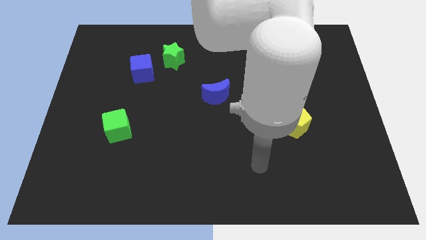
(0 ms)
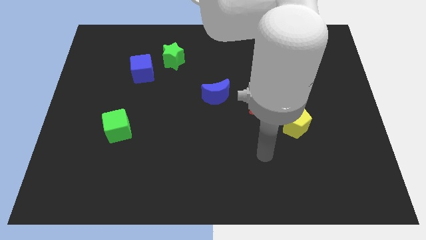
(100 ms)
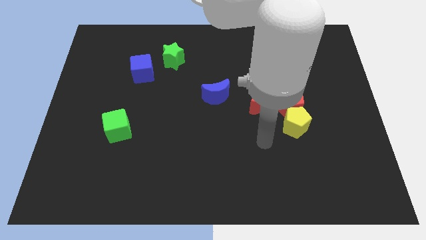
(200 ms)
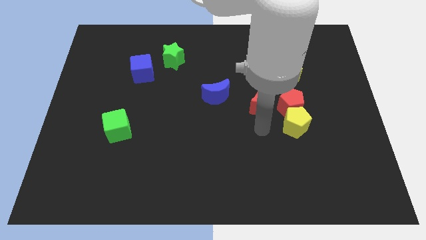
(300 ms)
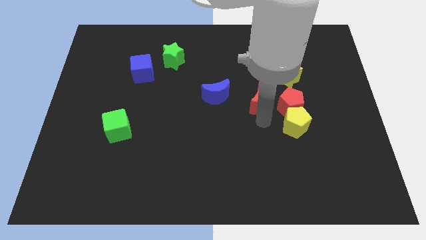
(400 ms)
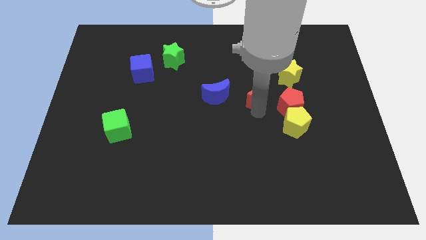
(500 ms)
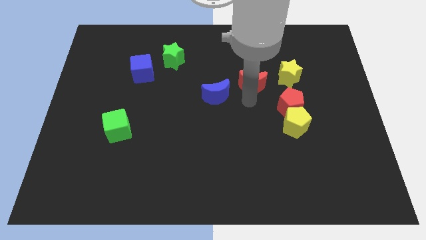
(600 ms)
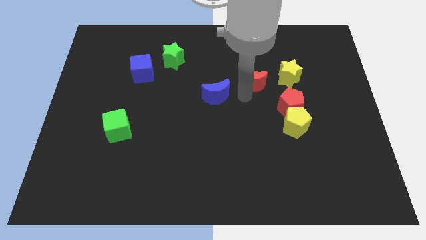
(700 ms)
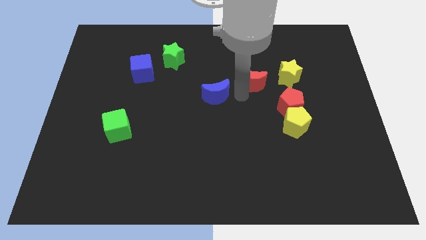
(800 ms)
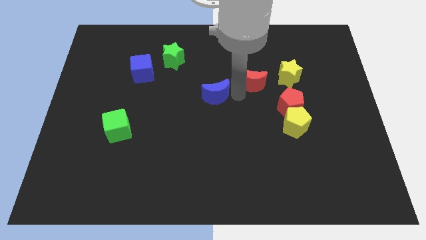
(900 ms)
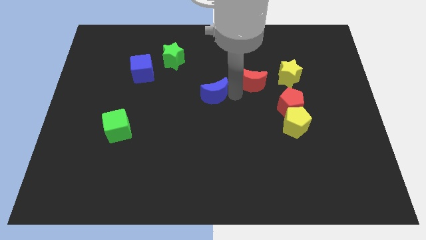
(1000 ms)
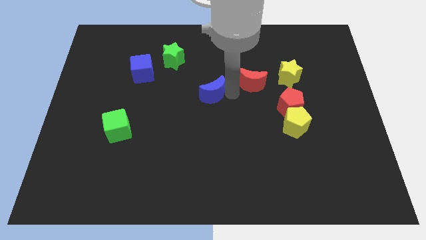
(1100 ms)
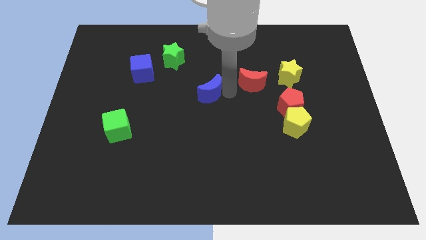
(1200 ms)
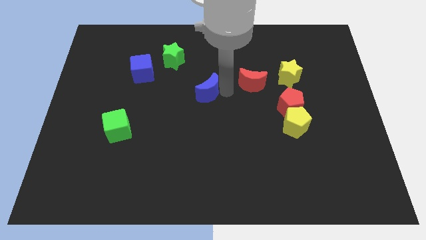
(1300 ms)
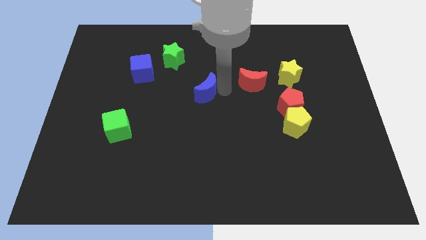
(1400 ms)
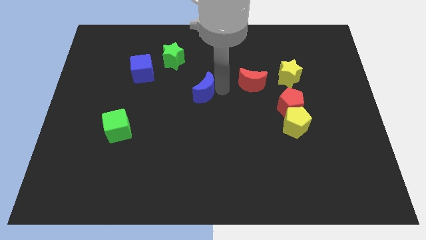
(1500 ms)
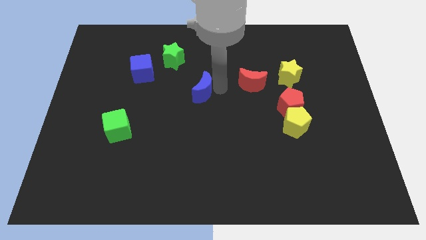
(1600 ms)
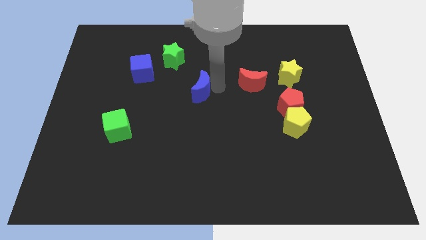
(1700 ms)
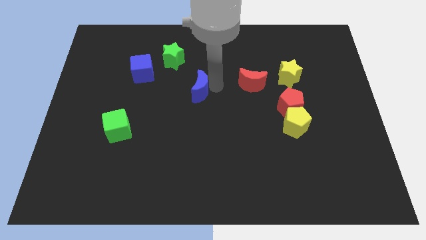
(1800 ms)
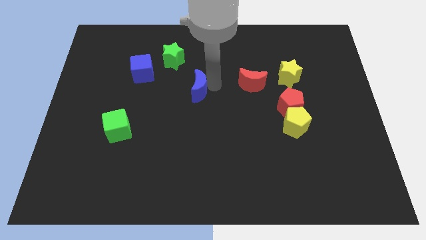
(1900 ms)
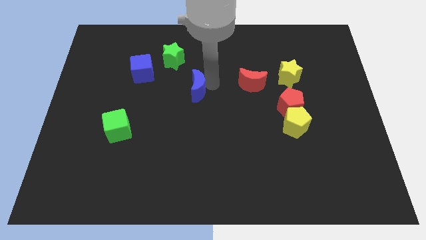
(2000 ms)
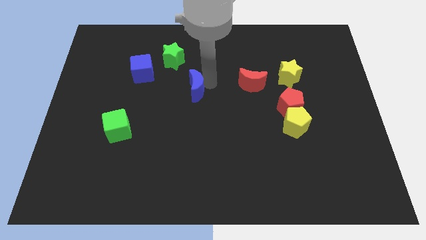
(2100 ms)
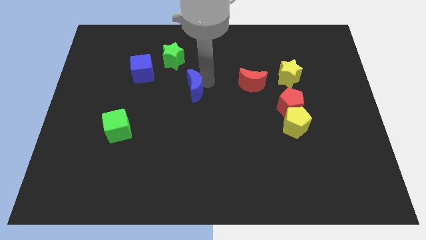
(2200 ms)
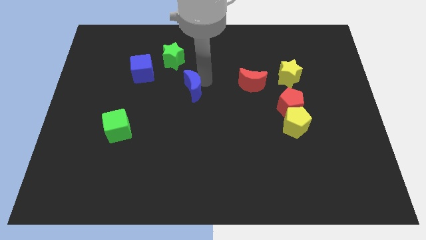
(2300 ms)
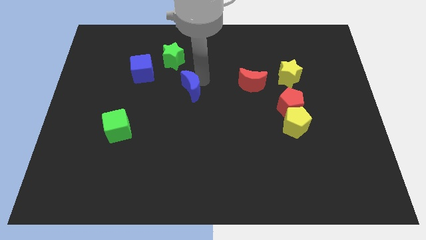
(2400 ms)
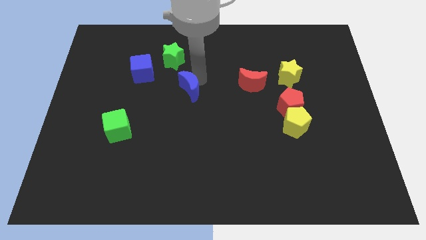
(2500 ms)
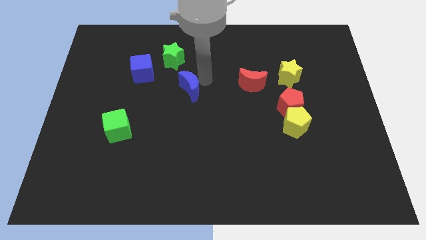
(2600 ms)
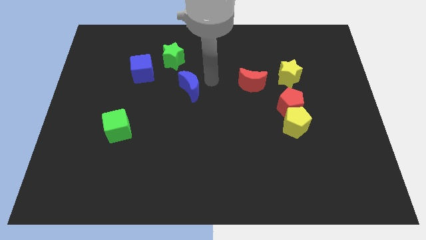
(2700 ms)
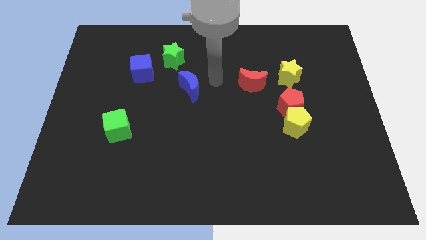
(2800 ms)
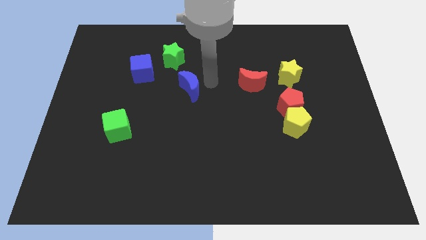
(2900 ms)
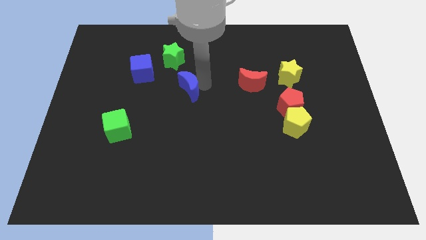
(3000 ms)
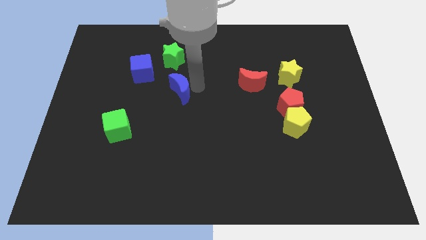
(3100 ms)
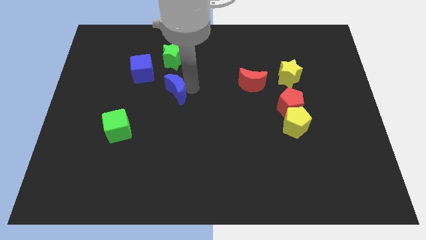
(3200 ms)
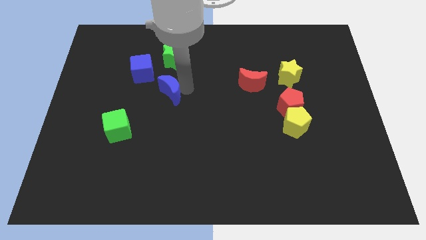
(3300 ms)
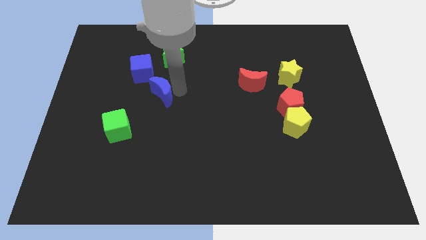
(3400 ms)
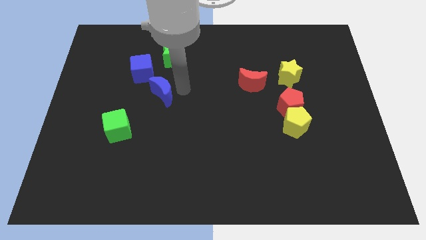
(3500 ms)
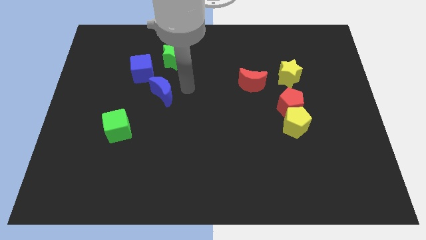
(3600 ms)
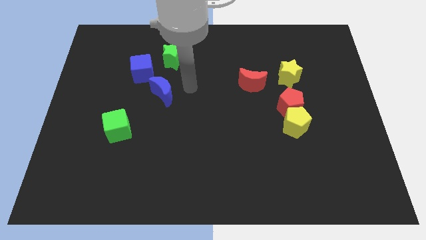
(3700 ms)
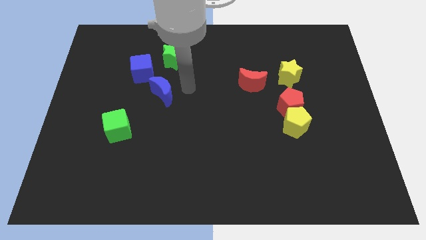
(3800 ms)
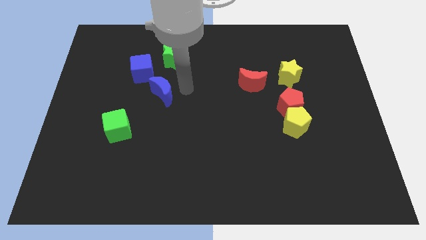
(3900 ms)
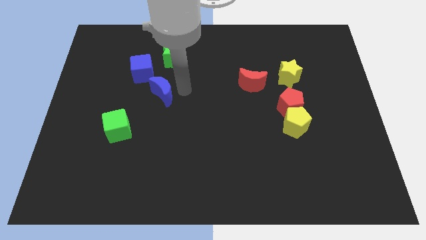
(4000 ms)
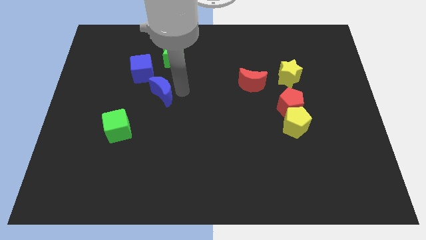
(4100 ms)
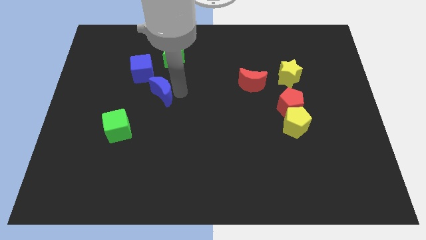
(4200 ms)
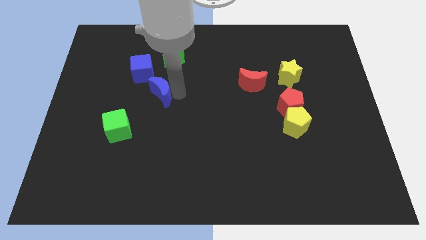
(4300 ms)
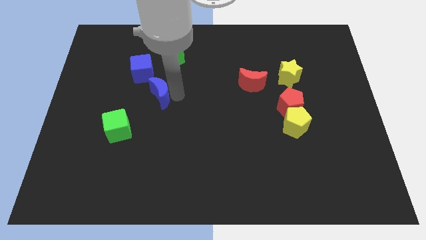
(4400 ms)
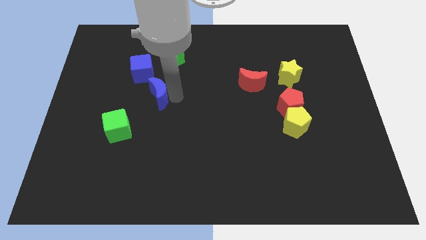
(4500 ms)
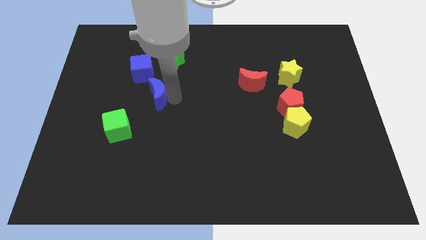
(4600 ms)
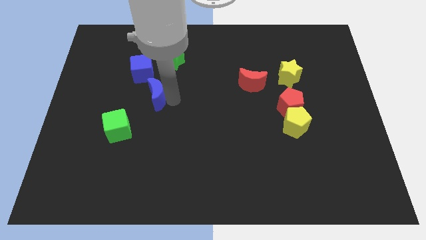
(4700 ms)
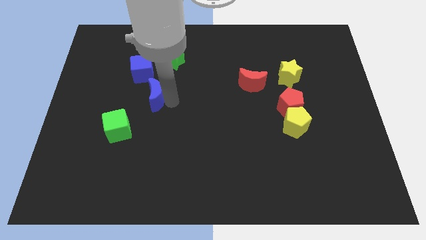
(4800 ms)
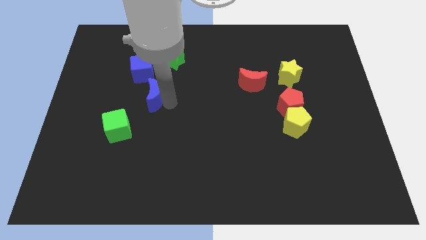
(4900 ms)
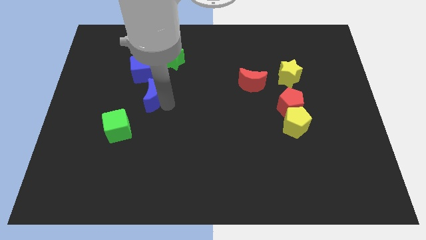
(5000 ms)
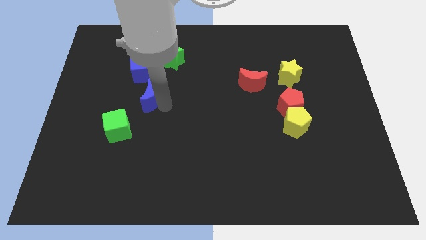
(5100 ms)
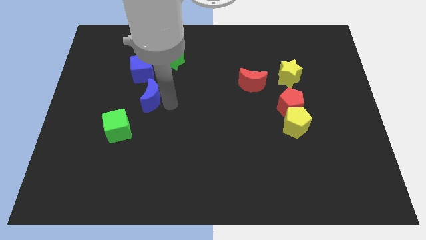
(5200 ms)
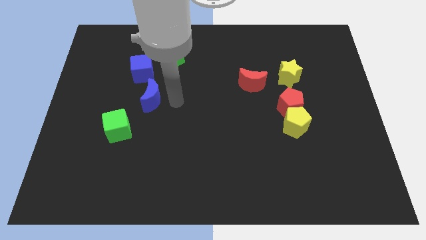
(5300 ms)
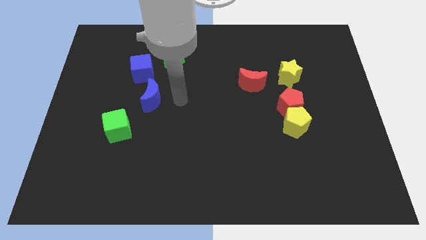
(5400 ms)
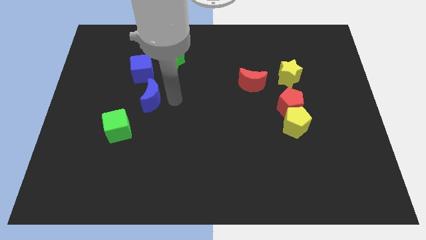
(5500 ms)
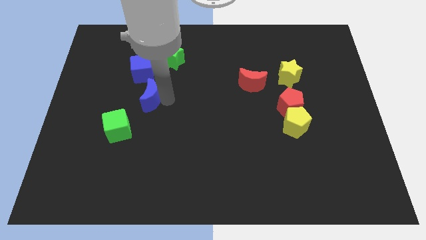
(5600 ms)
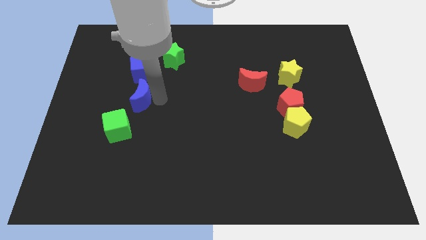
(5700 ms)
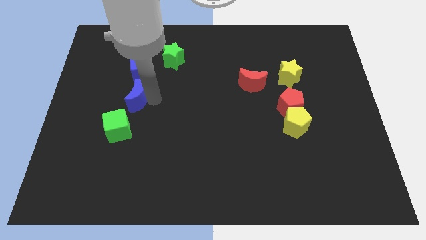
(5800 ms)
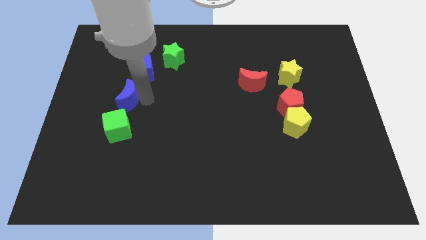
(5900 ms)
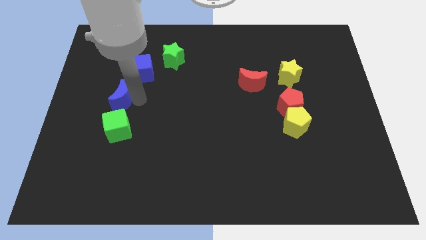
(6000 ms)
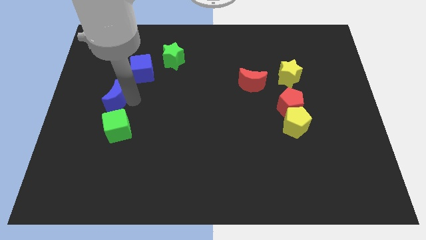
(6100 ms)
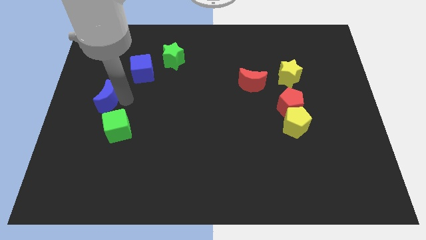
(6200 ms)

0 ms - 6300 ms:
push the blue moon to the left side

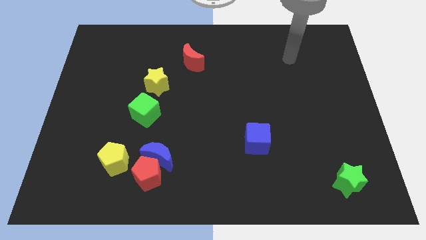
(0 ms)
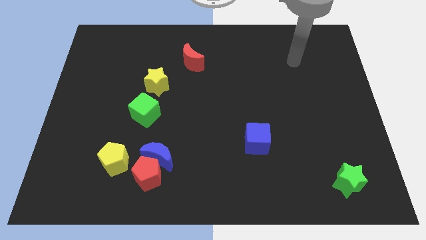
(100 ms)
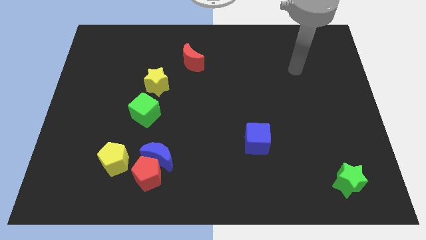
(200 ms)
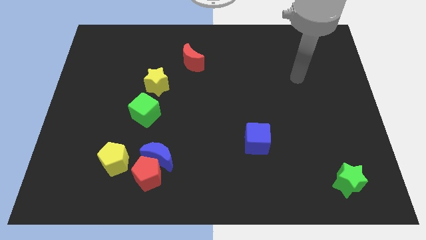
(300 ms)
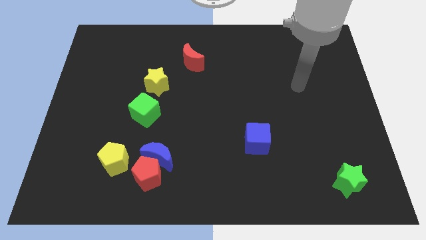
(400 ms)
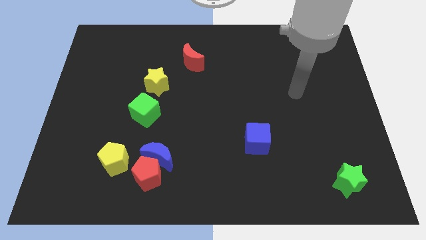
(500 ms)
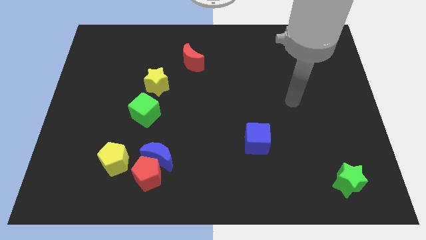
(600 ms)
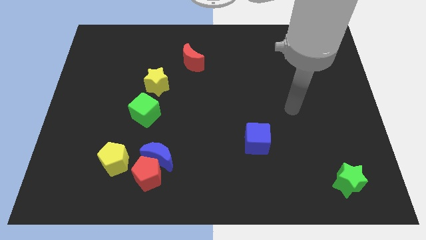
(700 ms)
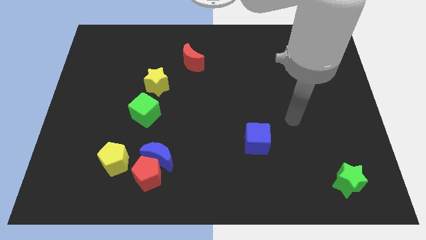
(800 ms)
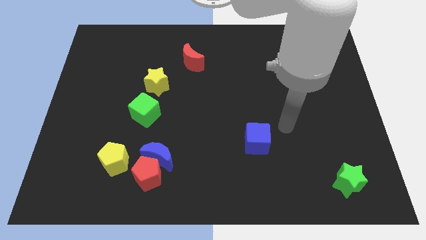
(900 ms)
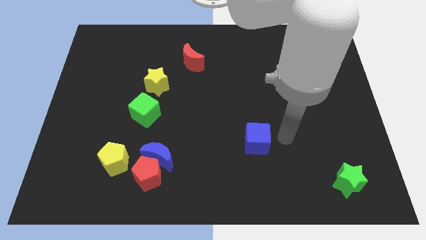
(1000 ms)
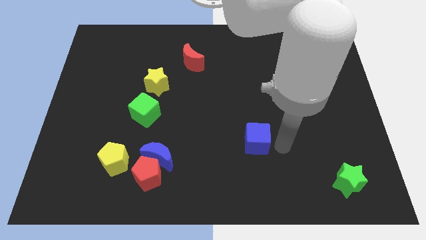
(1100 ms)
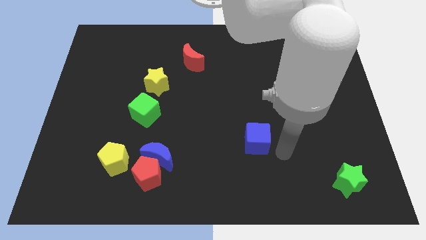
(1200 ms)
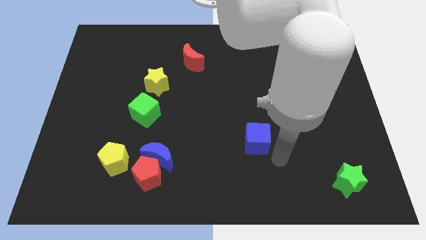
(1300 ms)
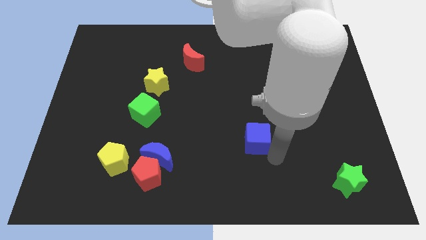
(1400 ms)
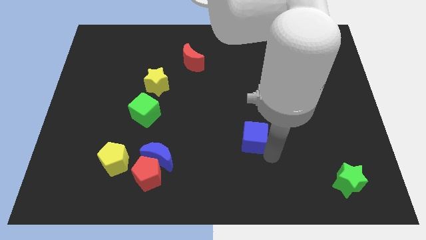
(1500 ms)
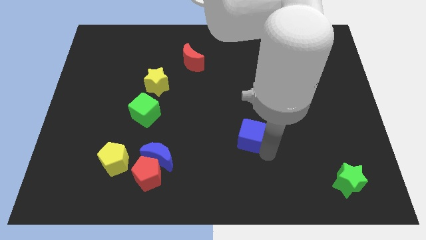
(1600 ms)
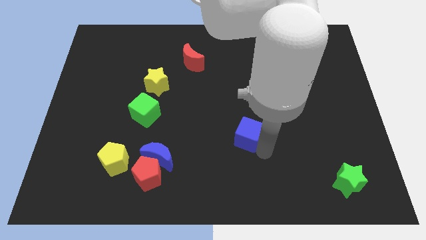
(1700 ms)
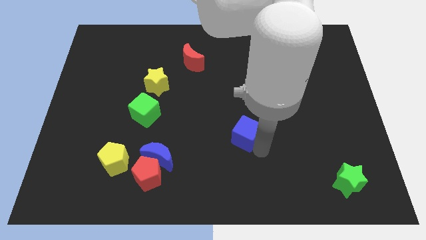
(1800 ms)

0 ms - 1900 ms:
slide the blue cube to the center of the board
